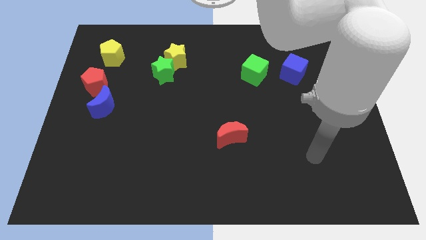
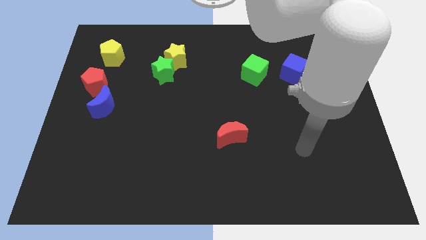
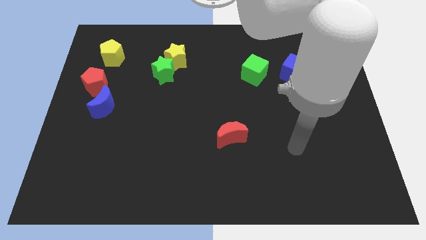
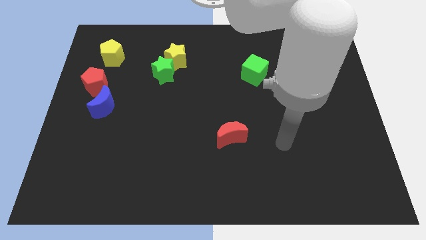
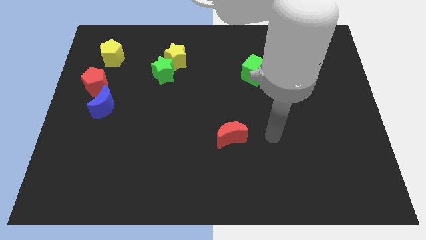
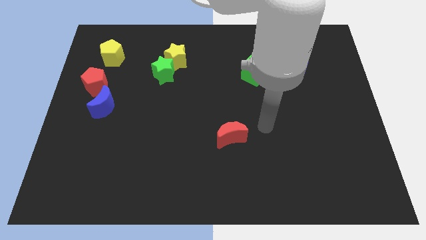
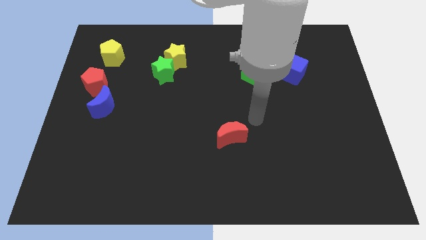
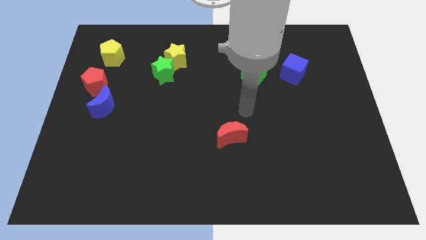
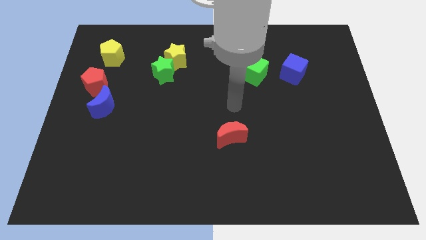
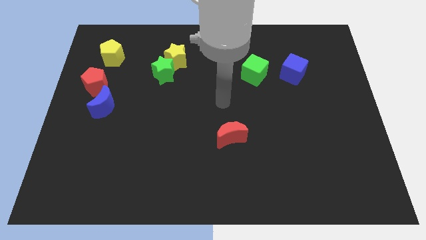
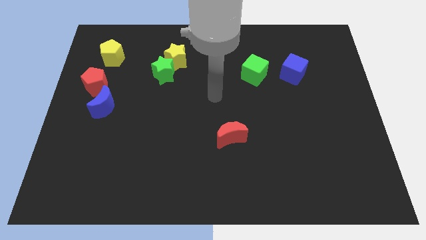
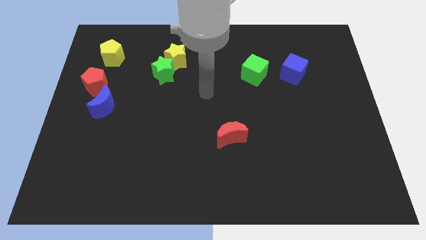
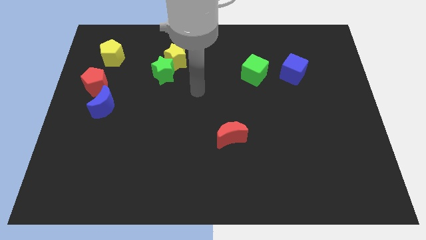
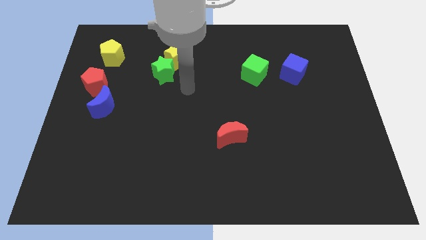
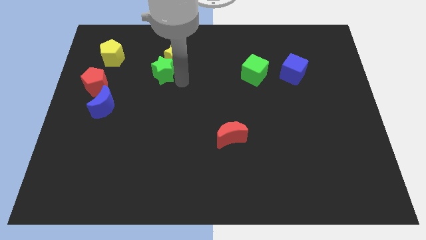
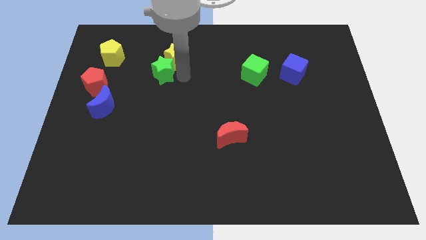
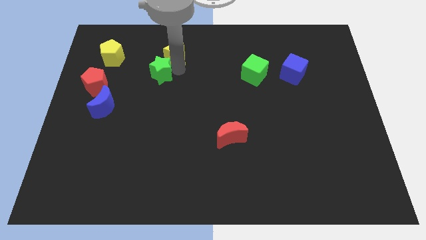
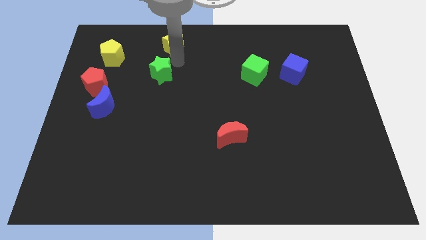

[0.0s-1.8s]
separate the green star from the yellow star

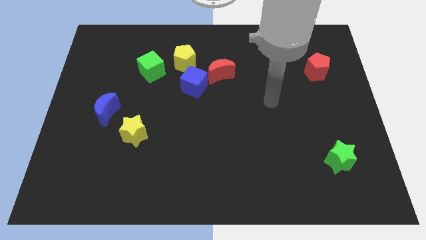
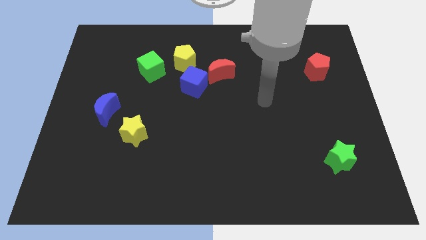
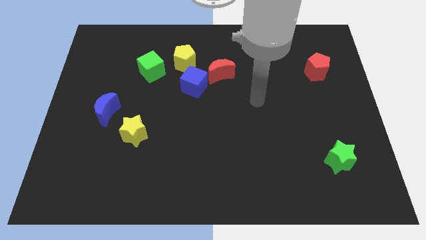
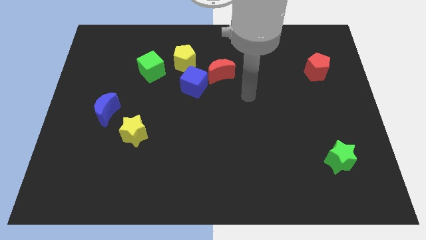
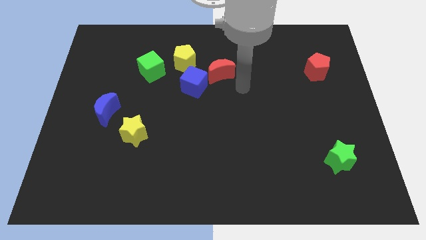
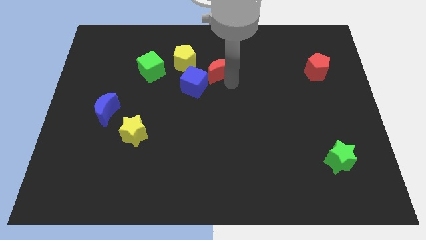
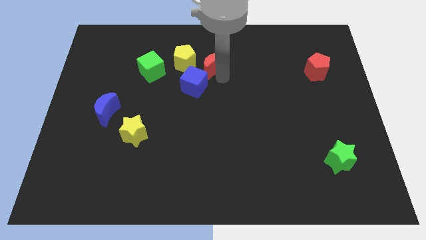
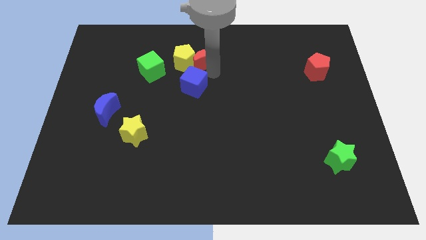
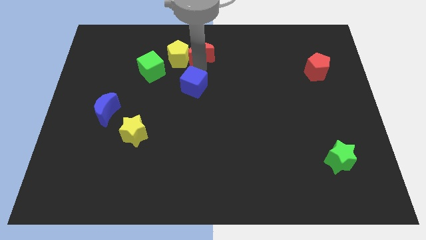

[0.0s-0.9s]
move the blue cube away from the red moon and yellow pentagon

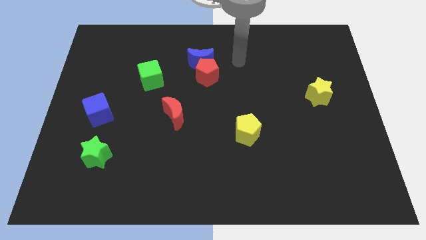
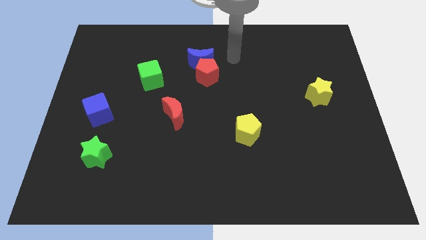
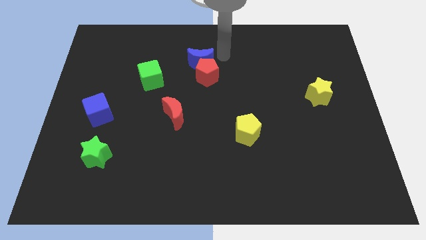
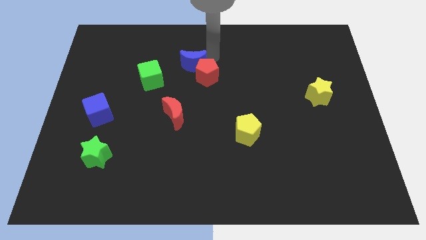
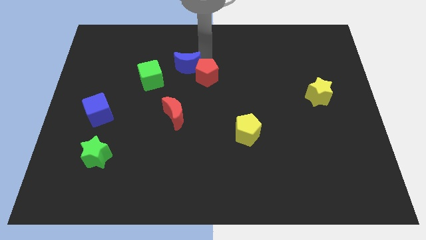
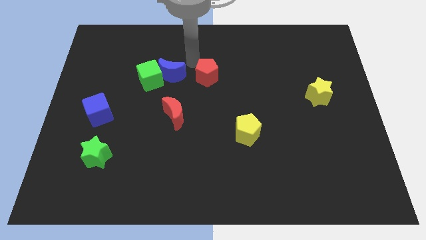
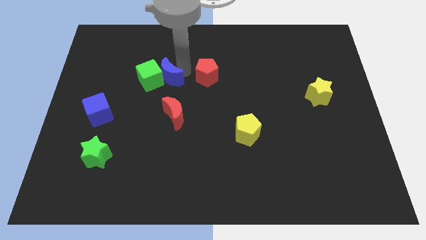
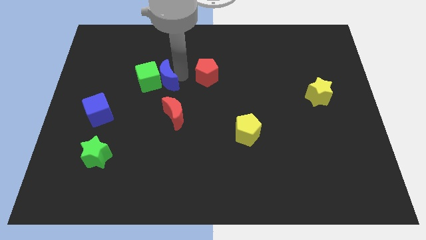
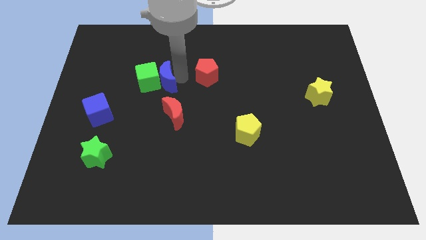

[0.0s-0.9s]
pull the red pentagon apart from the blue moon

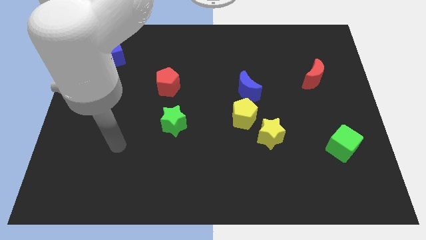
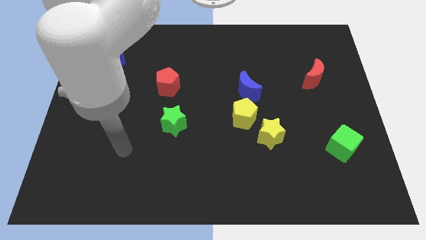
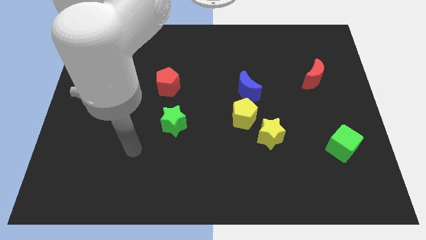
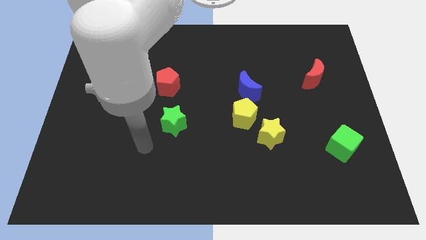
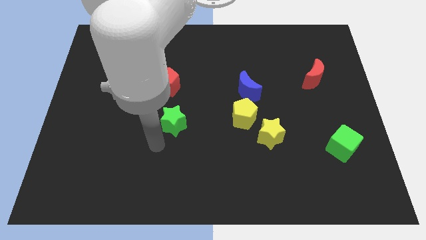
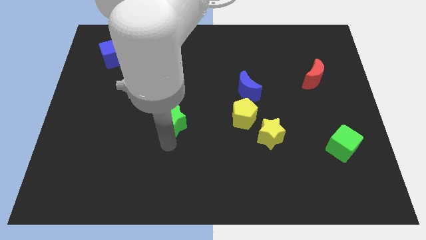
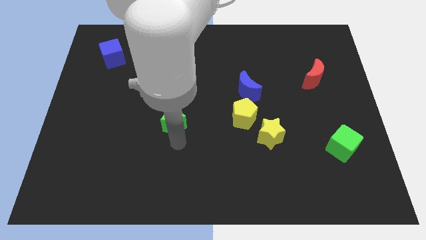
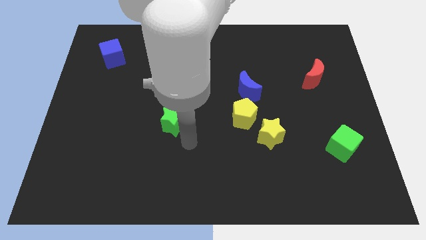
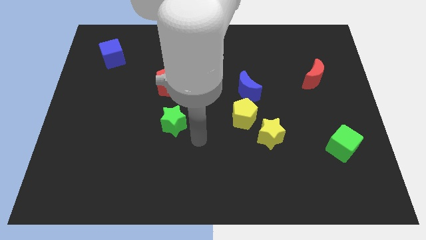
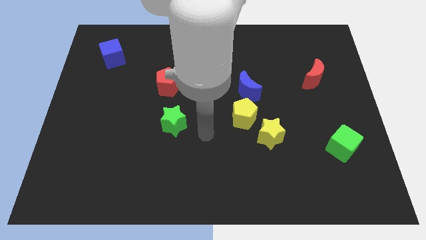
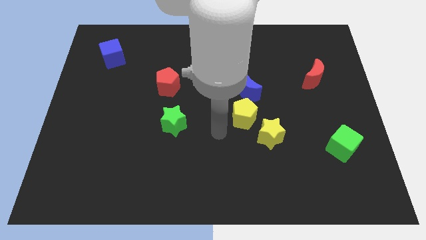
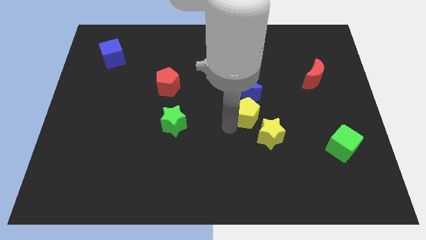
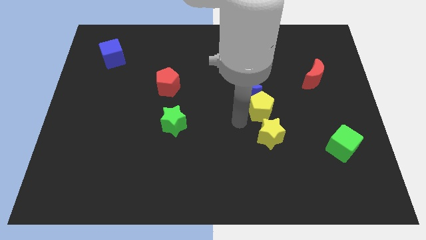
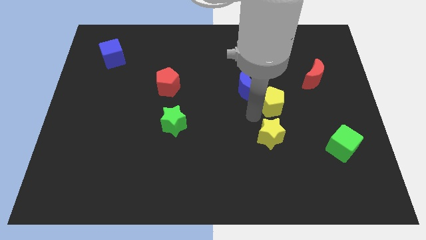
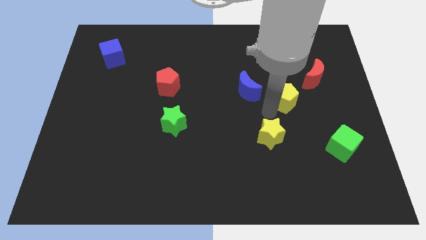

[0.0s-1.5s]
pull the yellow star apart from the yellow pentagon

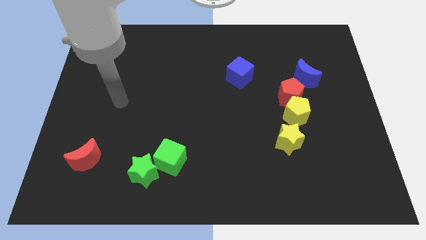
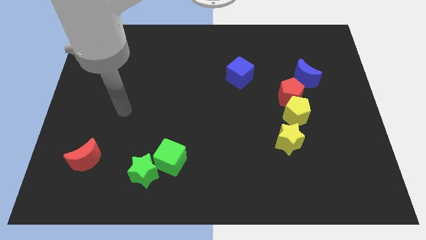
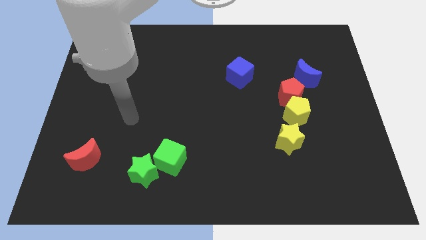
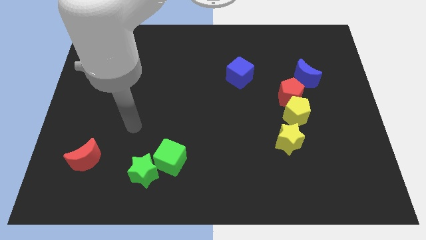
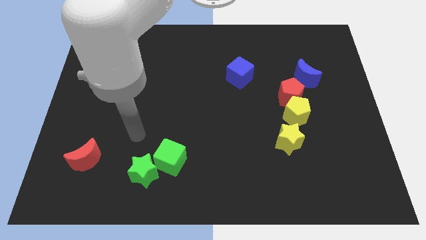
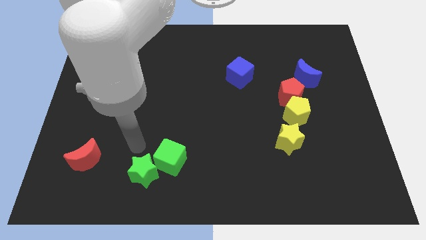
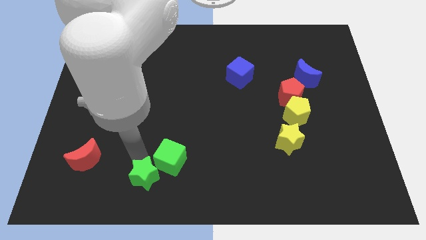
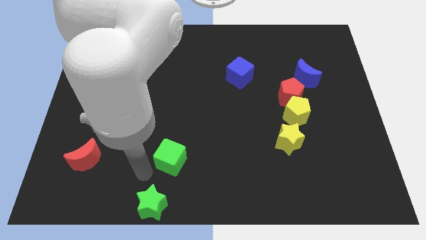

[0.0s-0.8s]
pull the green cube apart from the green star

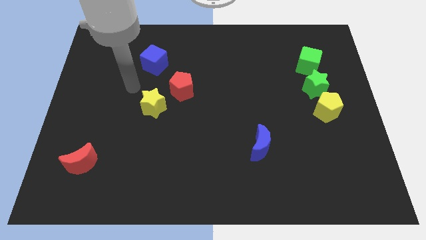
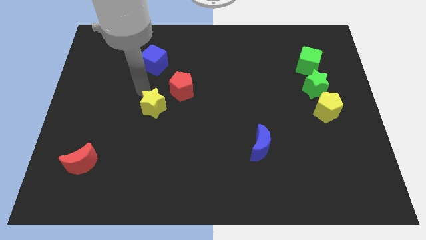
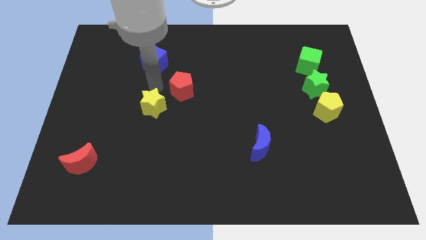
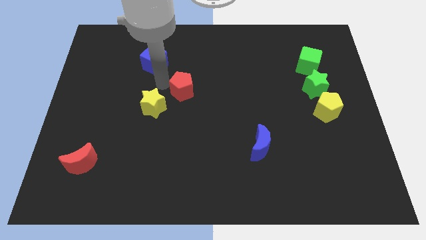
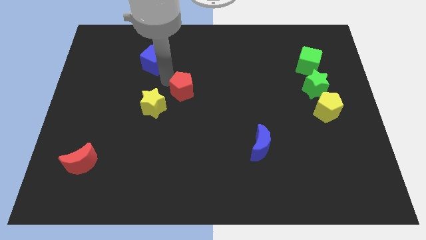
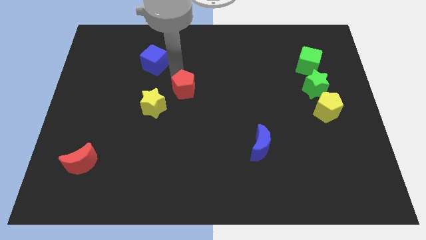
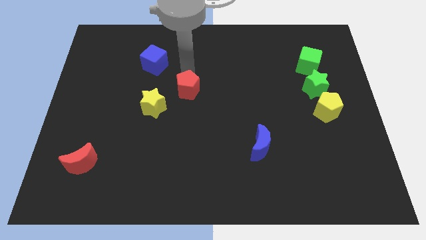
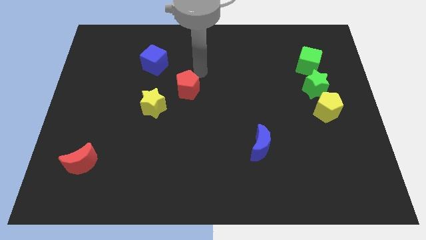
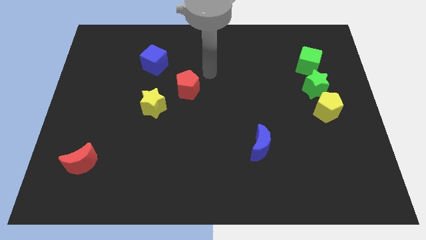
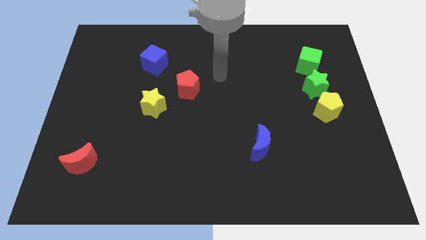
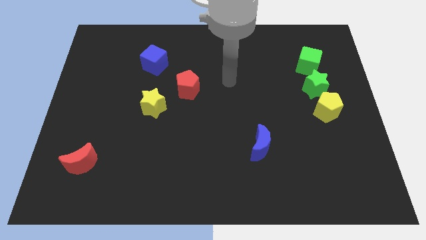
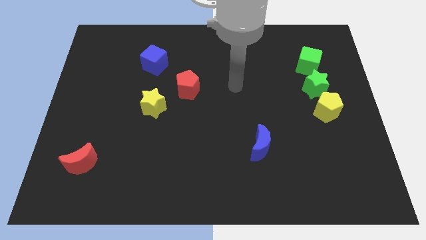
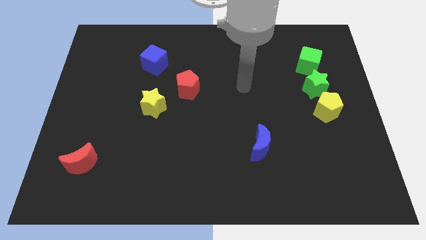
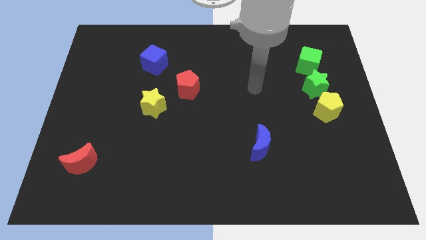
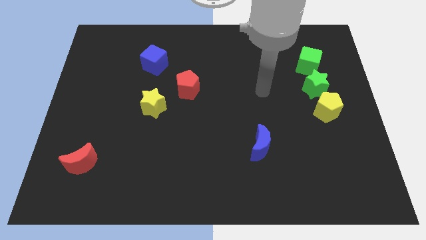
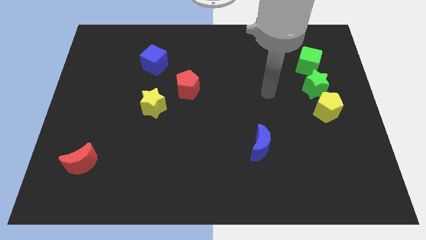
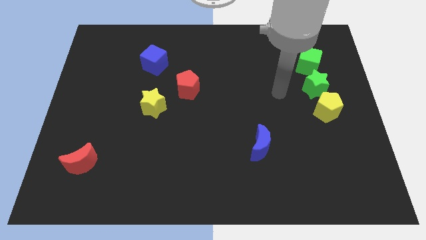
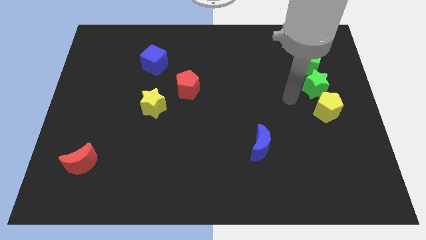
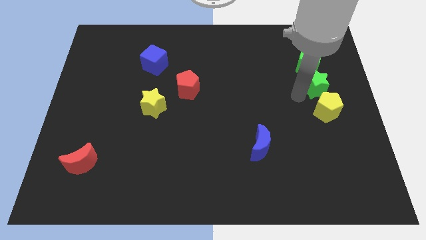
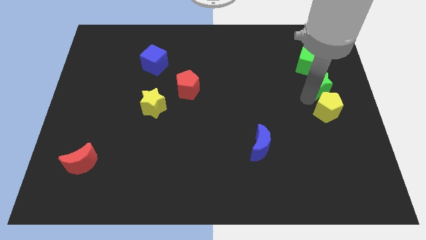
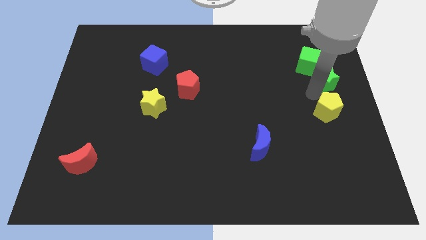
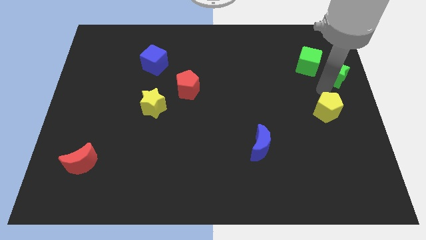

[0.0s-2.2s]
move the yellow pentagon away from the green star

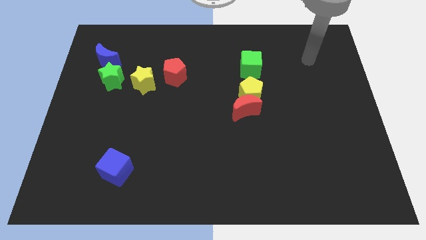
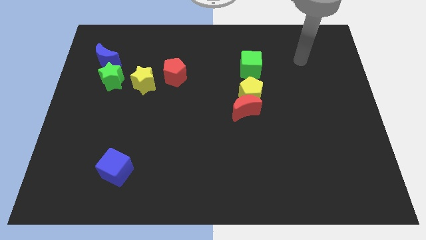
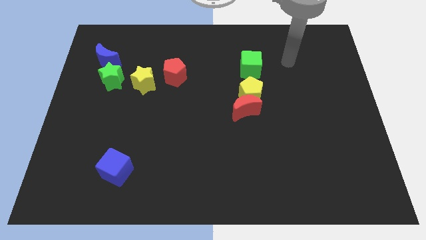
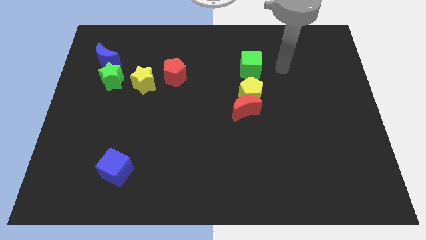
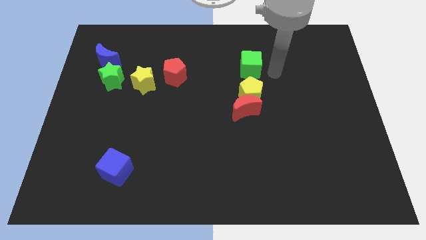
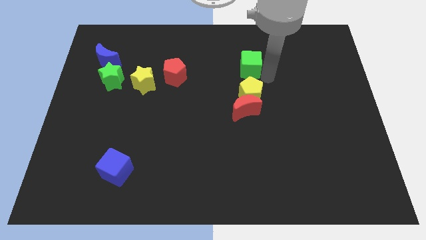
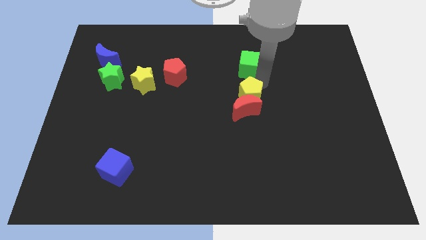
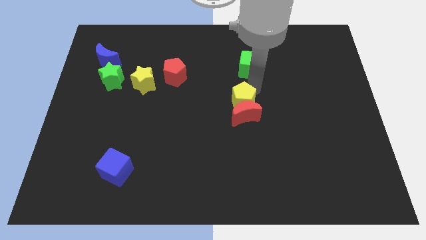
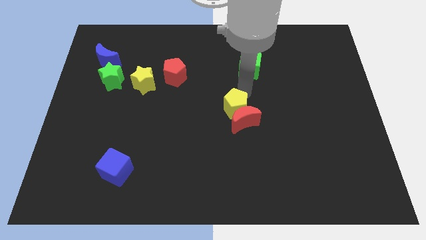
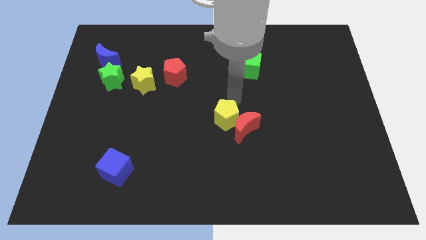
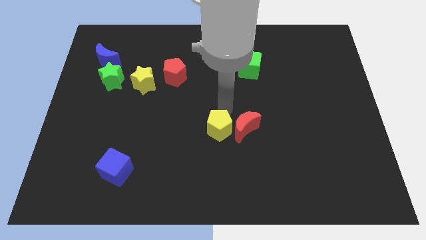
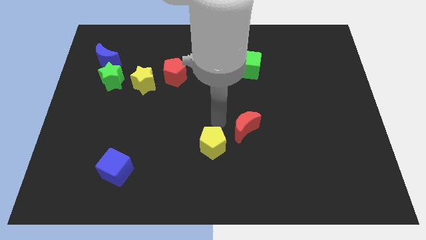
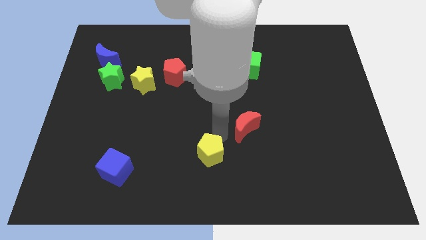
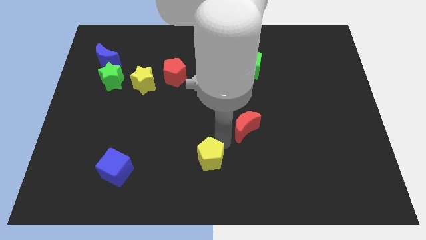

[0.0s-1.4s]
move the red moon away from the yellow pentagon
